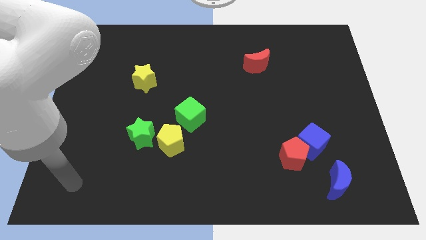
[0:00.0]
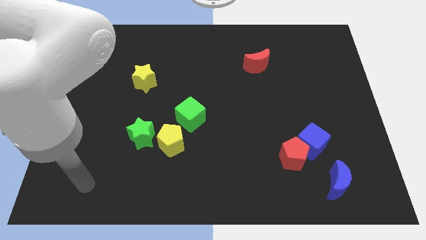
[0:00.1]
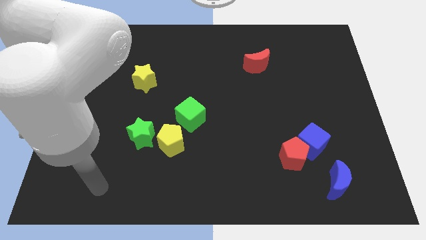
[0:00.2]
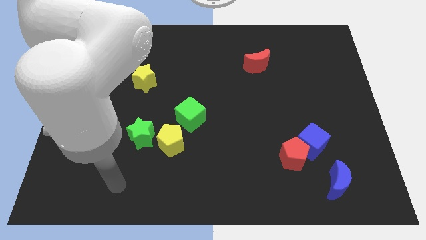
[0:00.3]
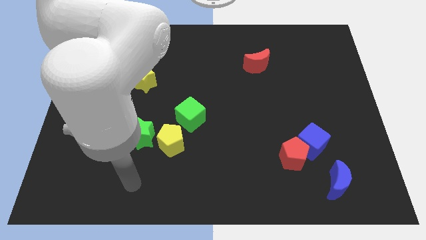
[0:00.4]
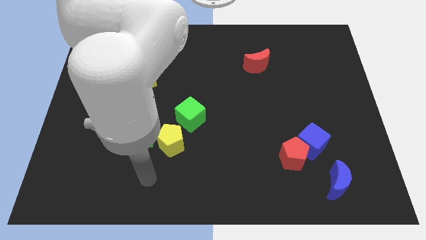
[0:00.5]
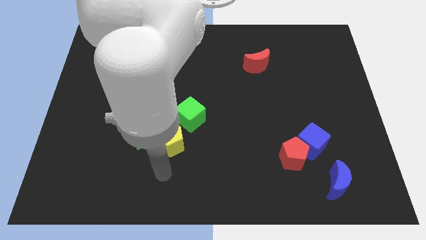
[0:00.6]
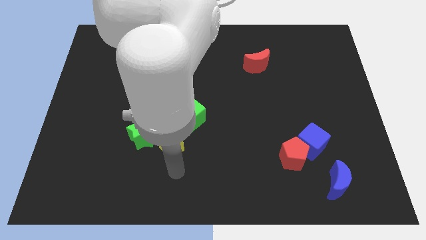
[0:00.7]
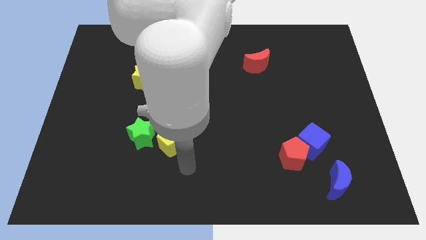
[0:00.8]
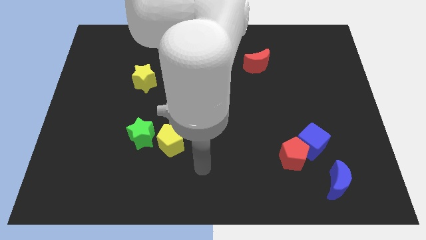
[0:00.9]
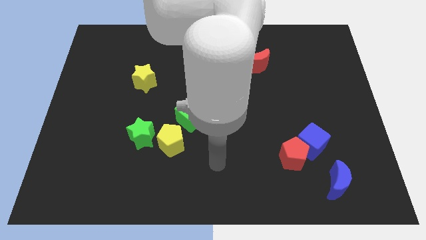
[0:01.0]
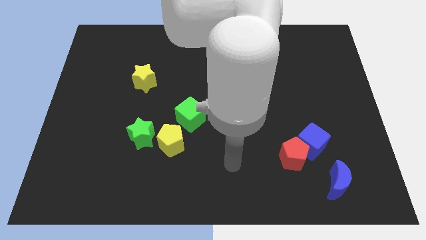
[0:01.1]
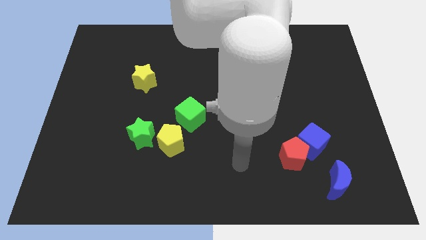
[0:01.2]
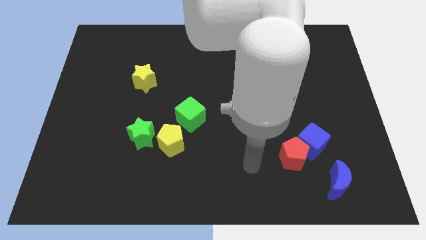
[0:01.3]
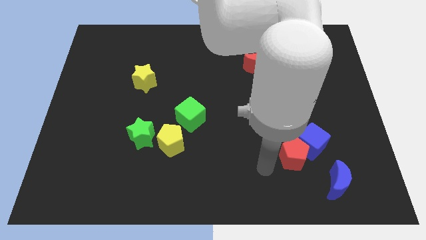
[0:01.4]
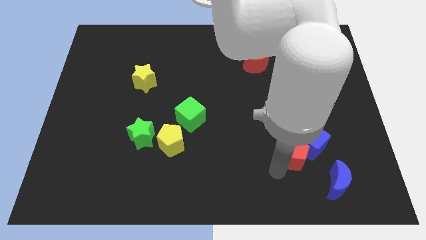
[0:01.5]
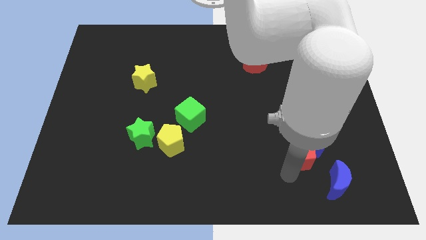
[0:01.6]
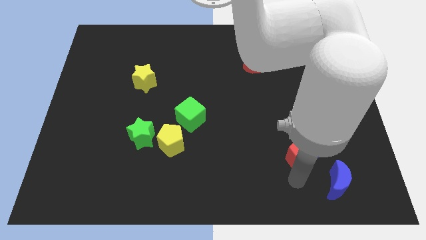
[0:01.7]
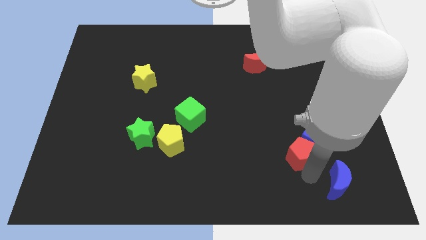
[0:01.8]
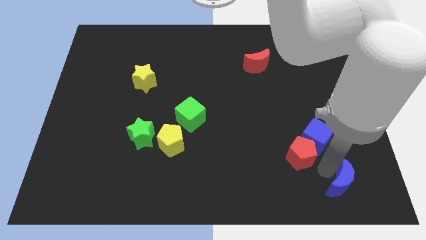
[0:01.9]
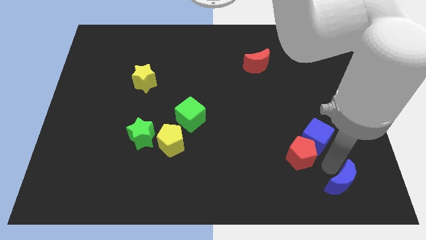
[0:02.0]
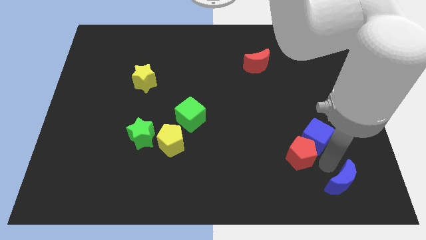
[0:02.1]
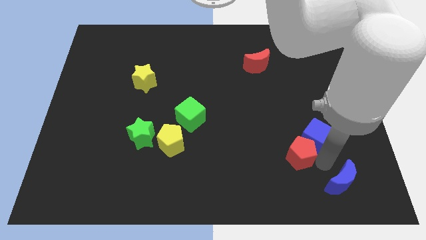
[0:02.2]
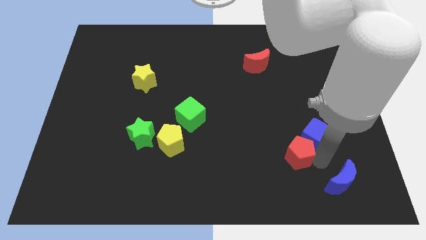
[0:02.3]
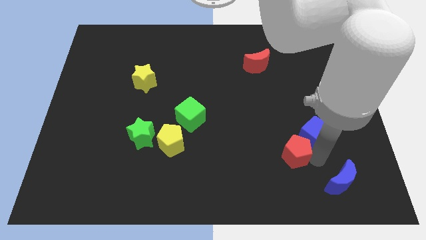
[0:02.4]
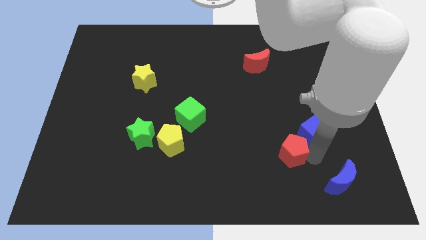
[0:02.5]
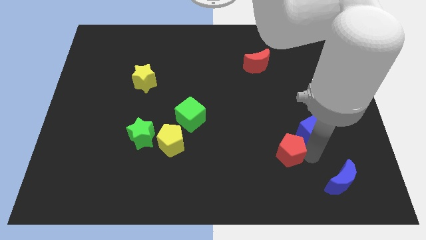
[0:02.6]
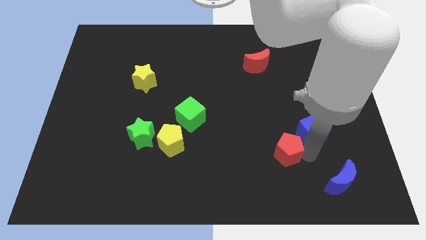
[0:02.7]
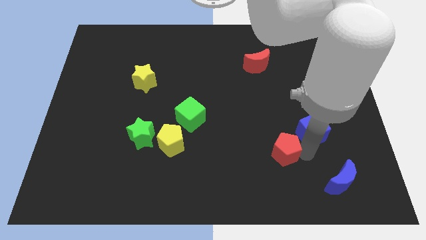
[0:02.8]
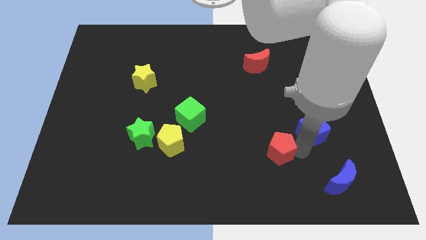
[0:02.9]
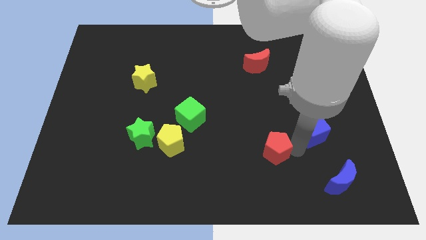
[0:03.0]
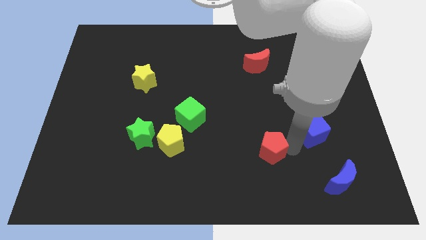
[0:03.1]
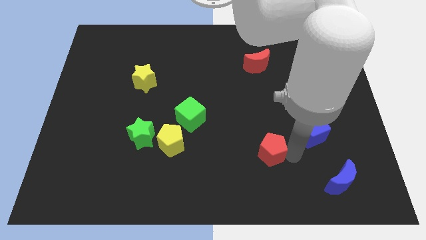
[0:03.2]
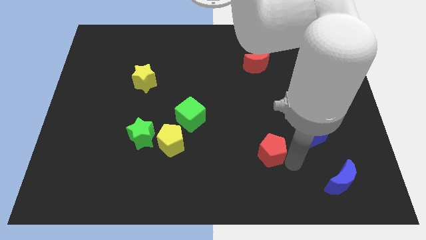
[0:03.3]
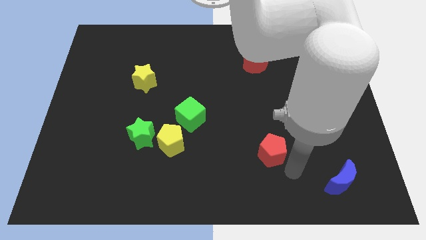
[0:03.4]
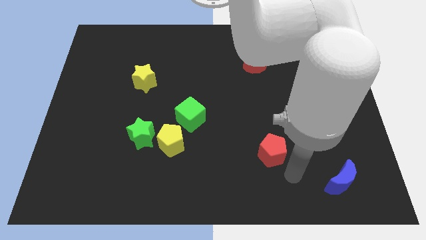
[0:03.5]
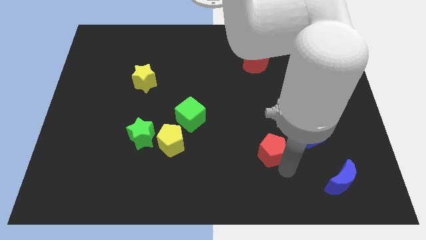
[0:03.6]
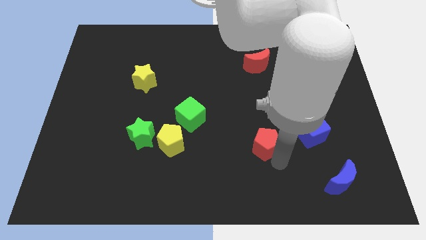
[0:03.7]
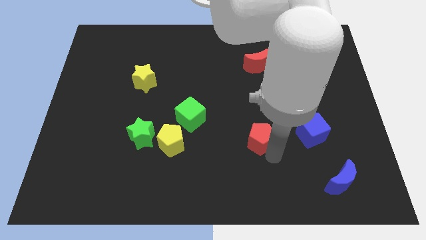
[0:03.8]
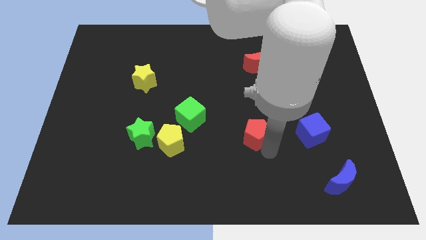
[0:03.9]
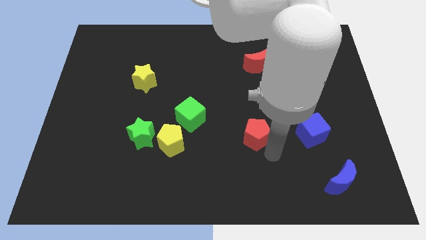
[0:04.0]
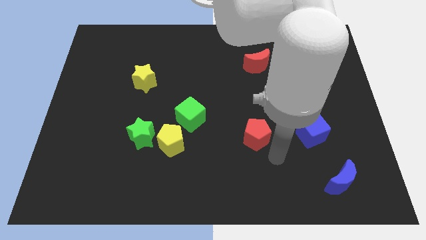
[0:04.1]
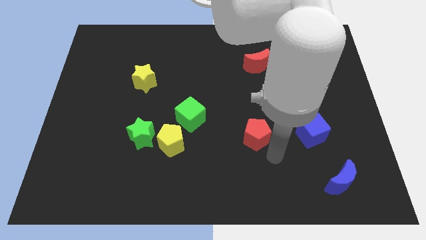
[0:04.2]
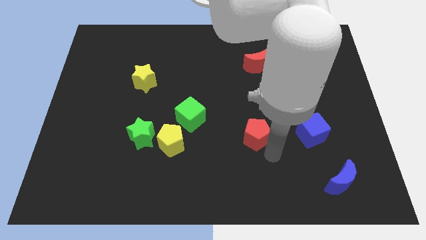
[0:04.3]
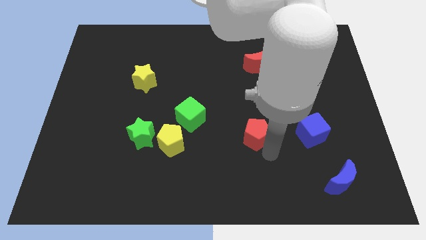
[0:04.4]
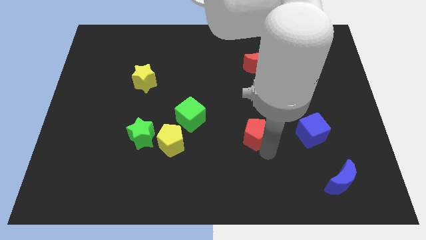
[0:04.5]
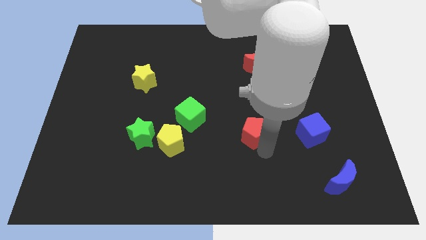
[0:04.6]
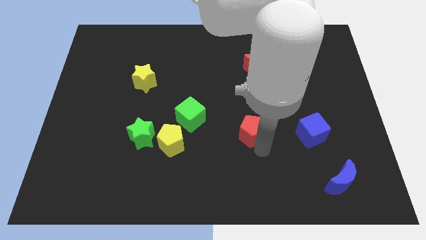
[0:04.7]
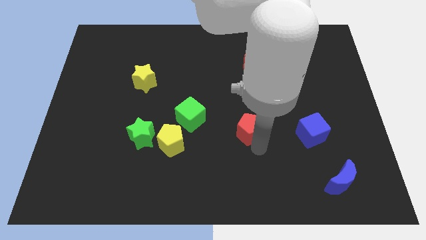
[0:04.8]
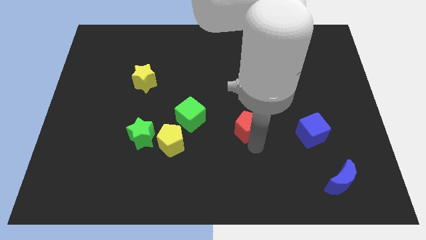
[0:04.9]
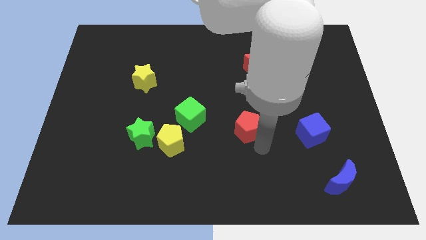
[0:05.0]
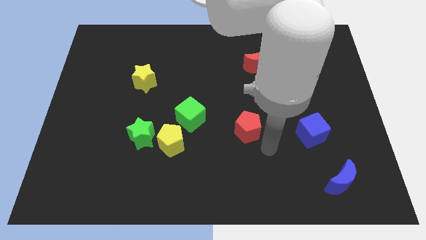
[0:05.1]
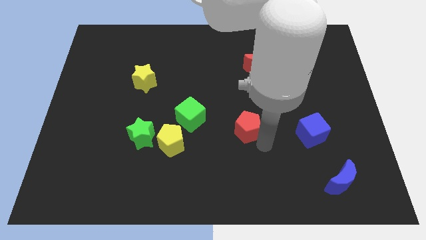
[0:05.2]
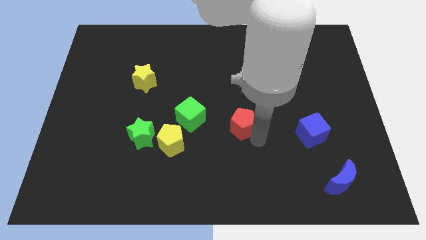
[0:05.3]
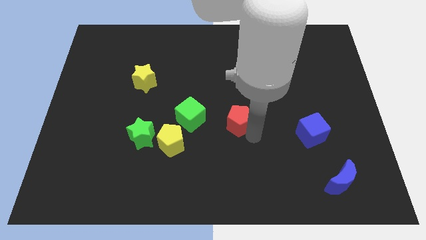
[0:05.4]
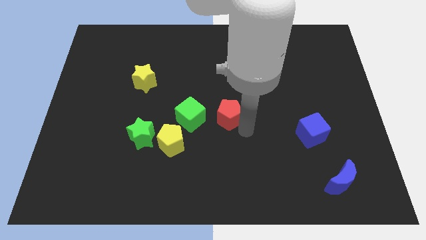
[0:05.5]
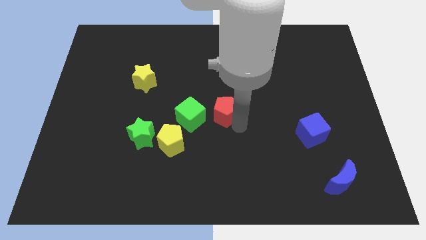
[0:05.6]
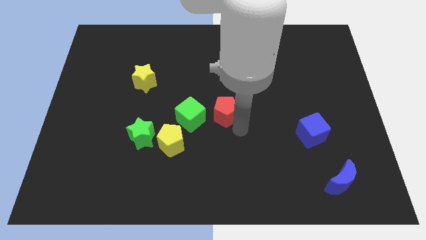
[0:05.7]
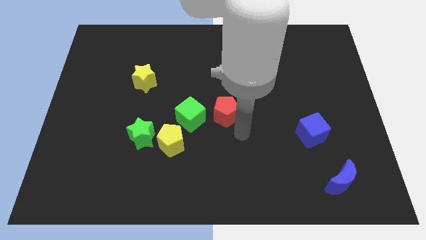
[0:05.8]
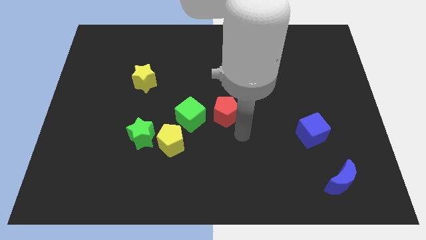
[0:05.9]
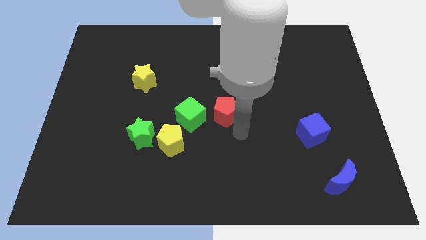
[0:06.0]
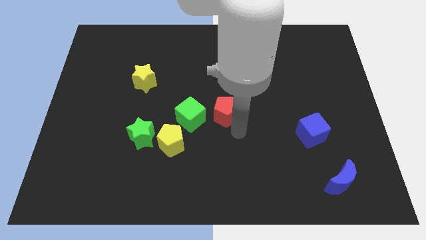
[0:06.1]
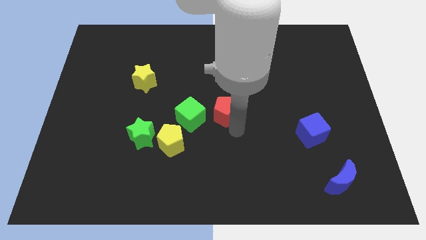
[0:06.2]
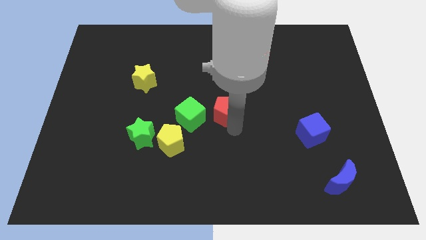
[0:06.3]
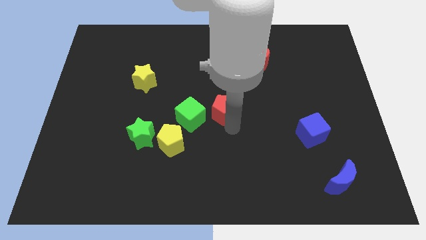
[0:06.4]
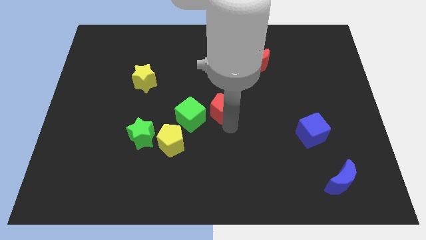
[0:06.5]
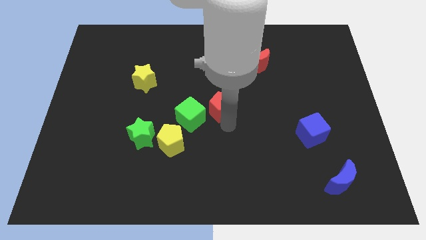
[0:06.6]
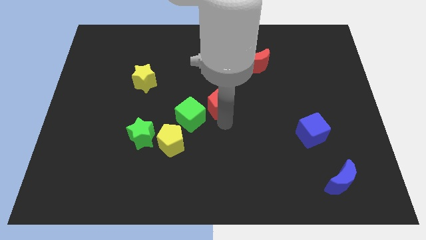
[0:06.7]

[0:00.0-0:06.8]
push the red pentagon up and left

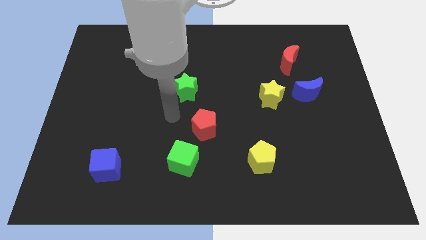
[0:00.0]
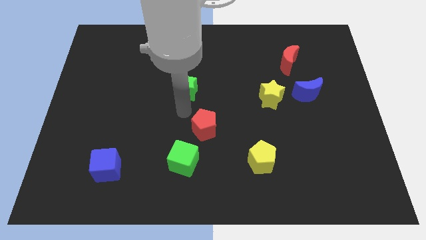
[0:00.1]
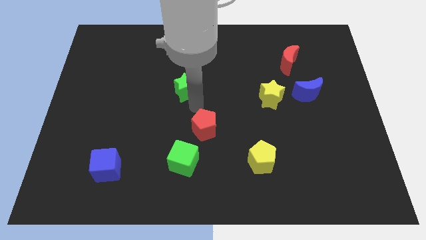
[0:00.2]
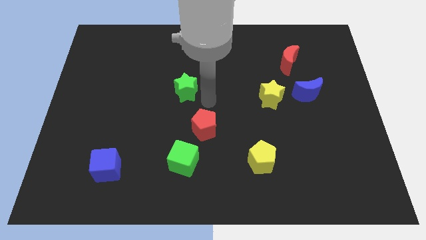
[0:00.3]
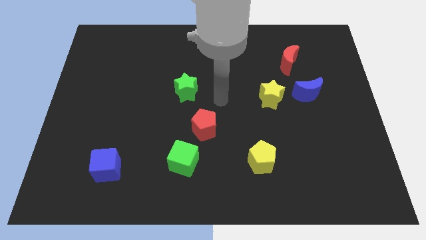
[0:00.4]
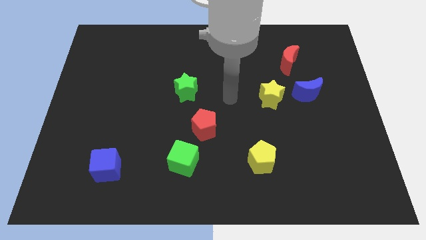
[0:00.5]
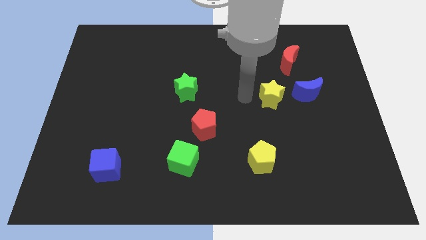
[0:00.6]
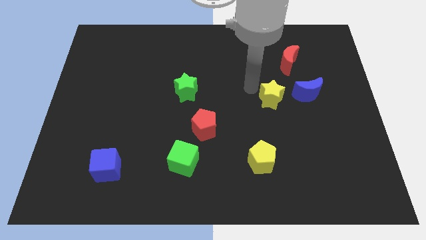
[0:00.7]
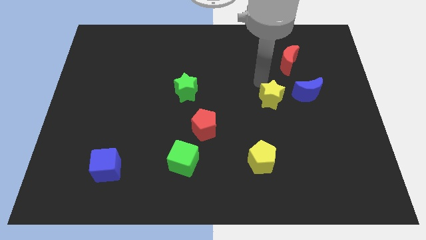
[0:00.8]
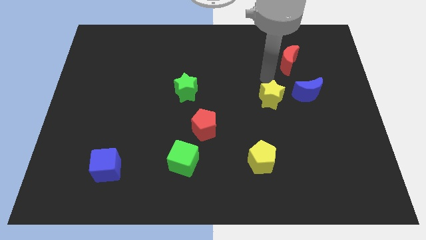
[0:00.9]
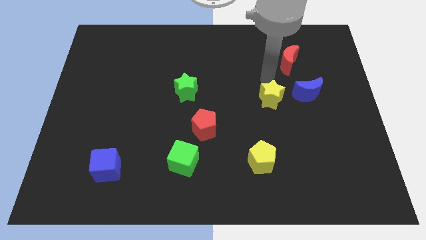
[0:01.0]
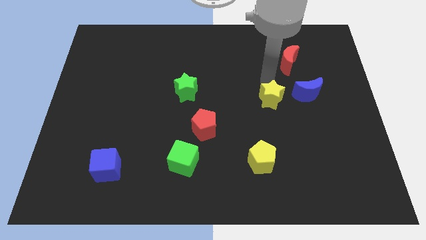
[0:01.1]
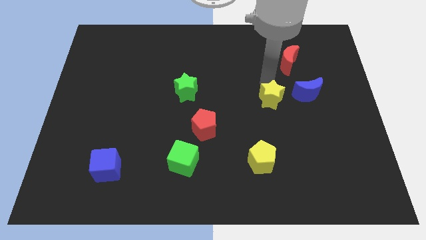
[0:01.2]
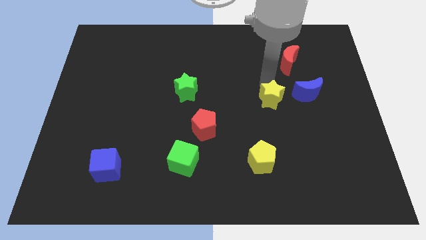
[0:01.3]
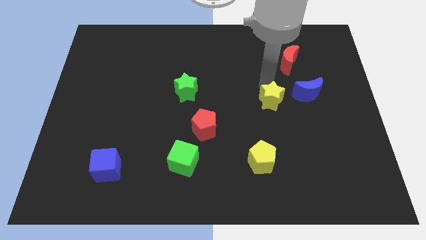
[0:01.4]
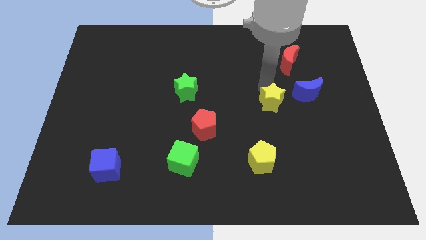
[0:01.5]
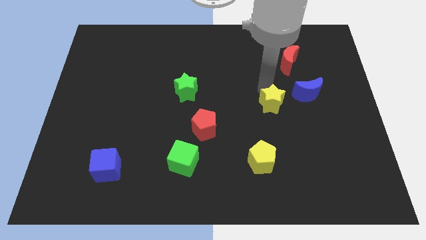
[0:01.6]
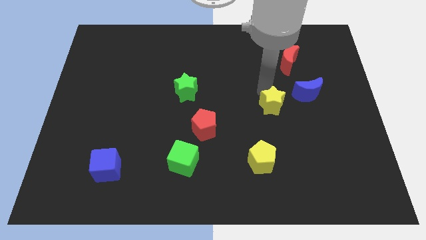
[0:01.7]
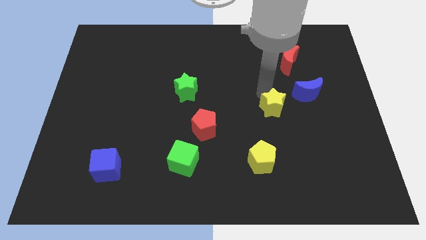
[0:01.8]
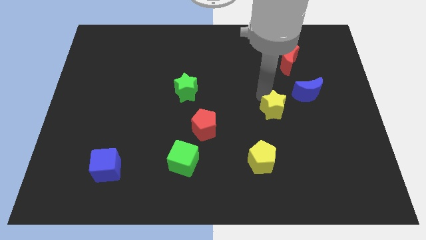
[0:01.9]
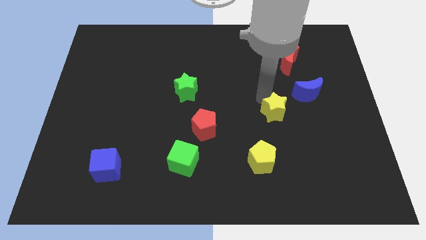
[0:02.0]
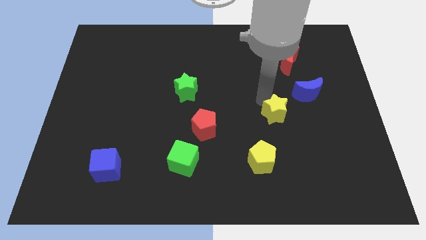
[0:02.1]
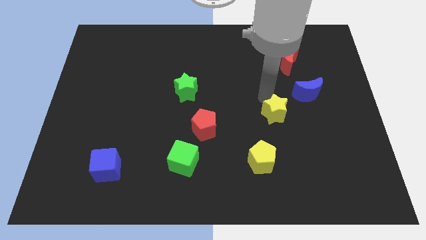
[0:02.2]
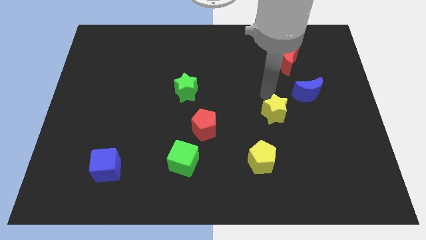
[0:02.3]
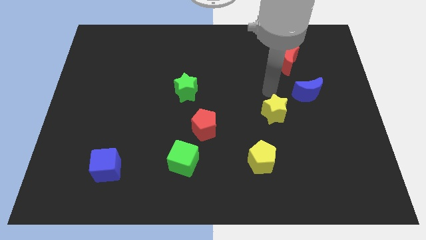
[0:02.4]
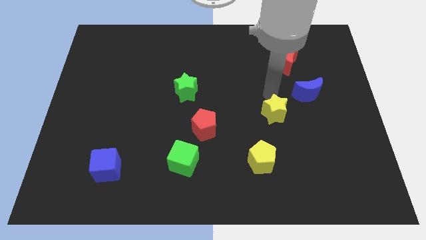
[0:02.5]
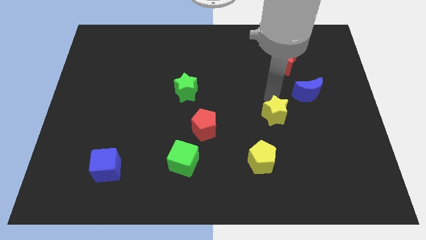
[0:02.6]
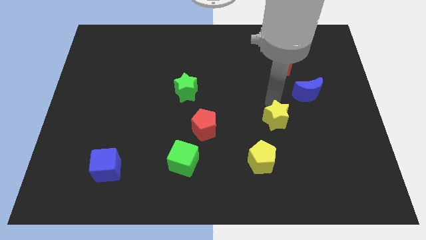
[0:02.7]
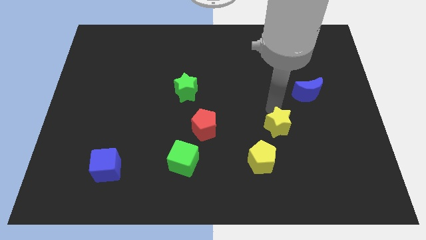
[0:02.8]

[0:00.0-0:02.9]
slide the yellow star downwards a little bit
